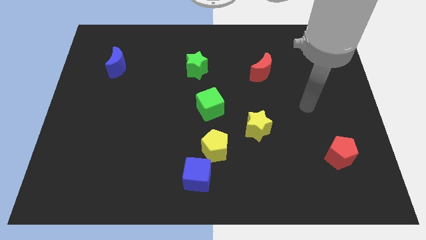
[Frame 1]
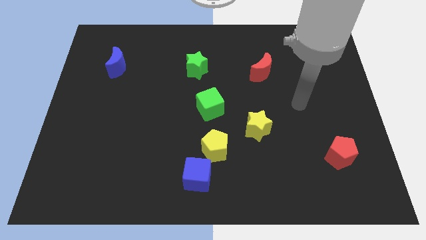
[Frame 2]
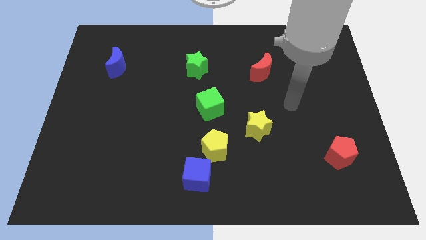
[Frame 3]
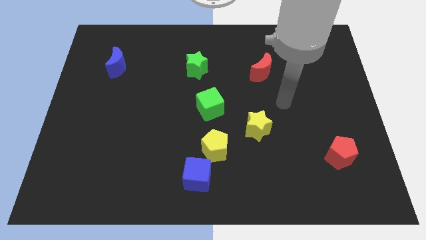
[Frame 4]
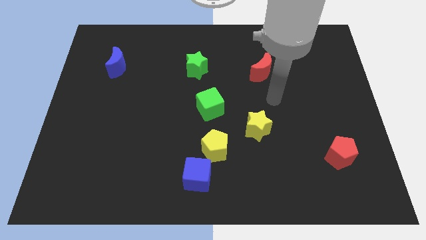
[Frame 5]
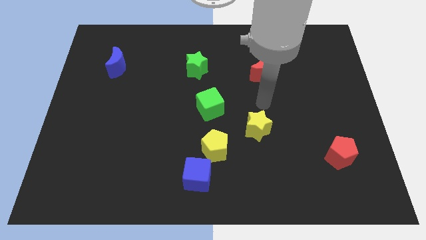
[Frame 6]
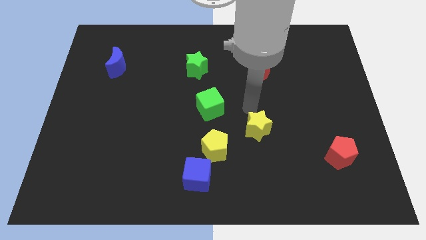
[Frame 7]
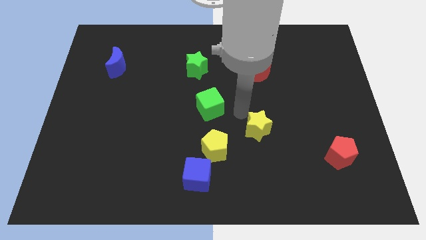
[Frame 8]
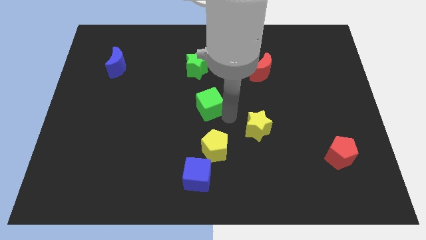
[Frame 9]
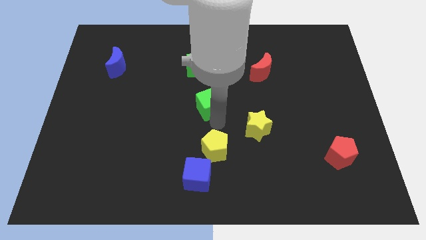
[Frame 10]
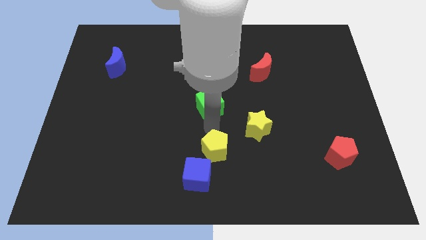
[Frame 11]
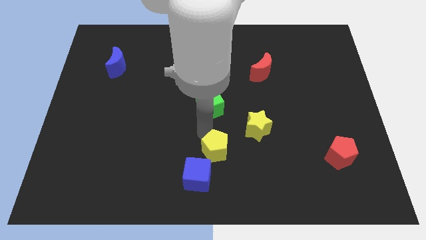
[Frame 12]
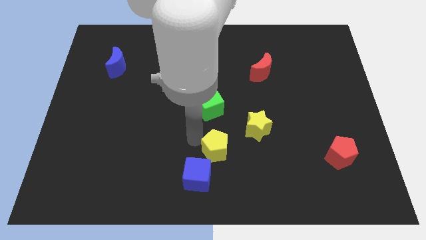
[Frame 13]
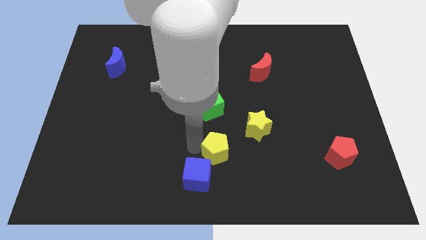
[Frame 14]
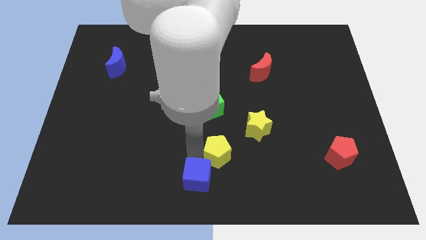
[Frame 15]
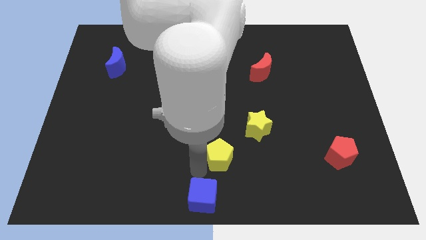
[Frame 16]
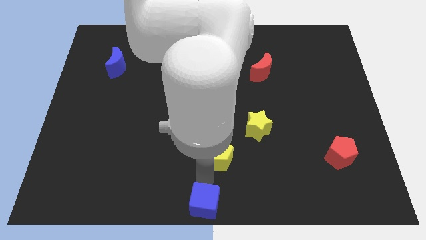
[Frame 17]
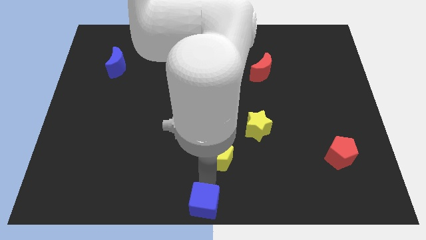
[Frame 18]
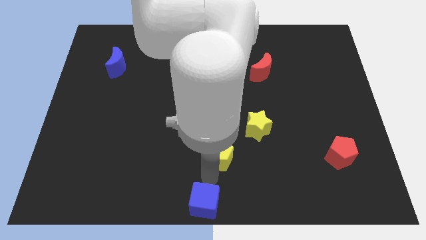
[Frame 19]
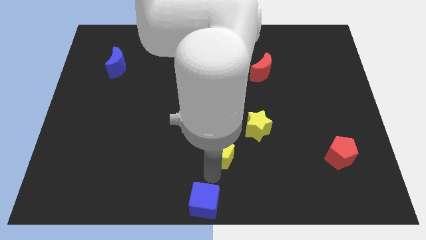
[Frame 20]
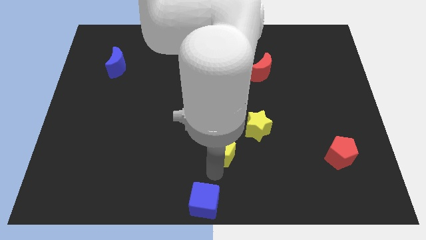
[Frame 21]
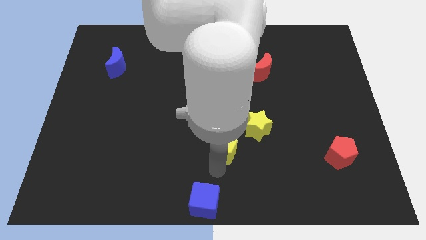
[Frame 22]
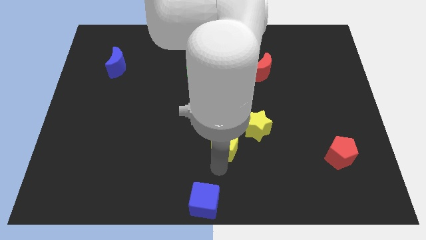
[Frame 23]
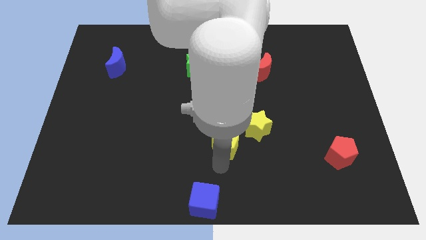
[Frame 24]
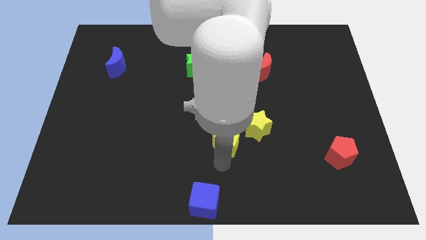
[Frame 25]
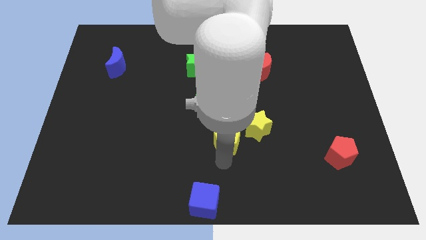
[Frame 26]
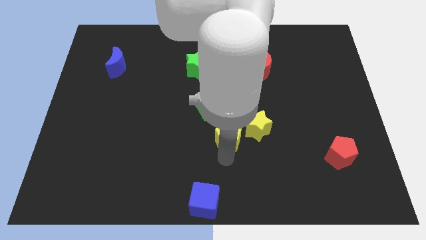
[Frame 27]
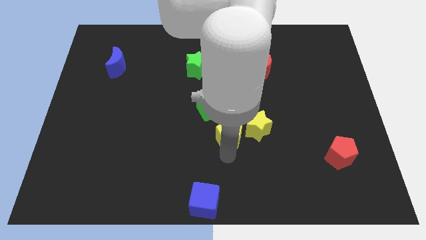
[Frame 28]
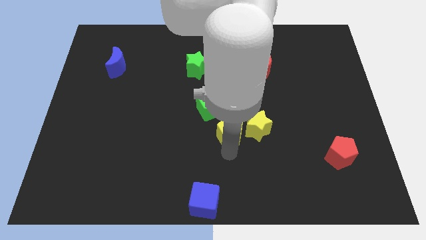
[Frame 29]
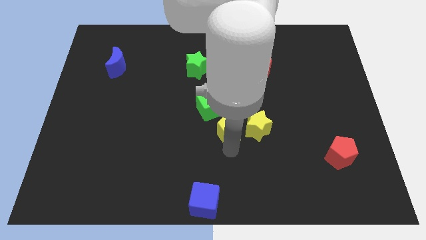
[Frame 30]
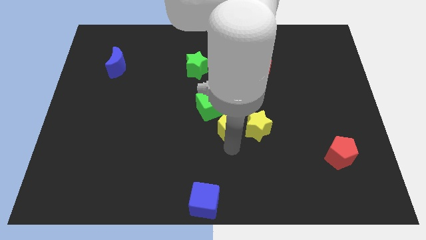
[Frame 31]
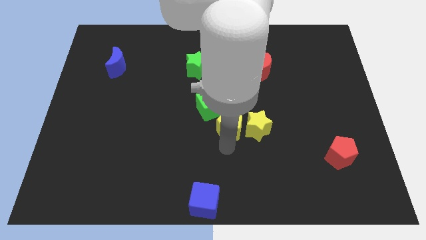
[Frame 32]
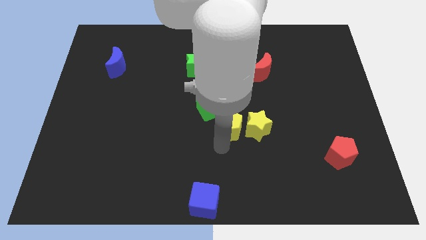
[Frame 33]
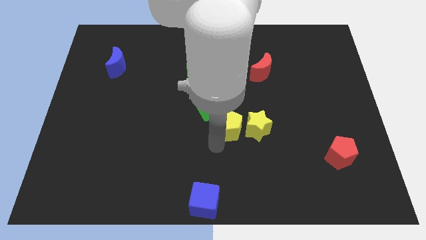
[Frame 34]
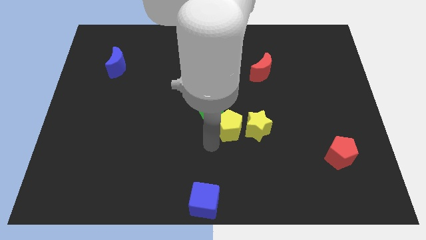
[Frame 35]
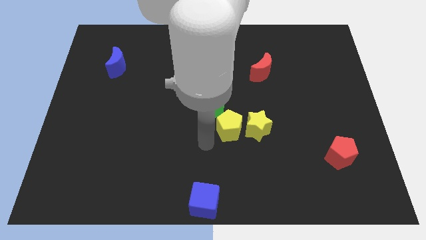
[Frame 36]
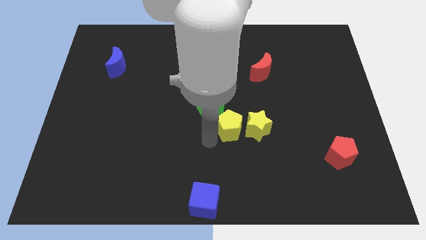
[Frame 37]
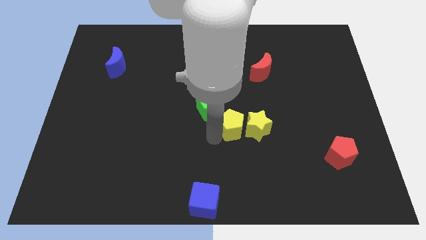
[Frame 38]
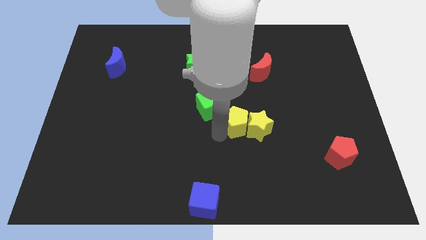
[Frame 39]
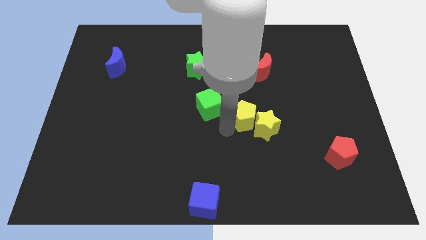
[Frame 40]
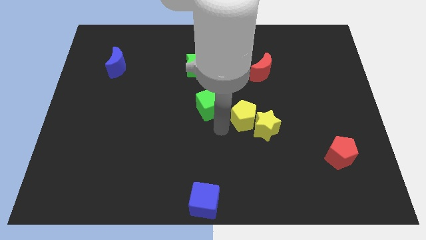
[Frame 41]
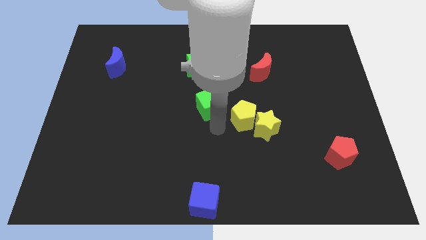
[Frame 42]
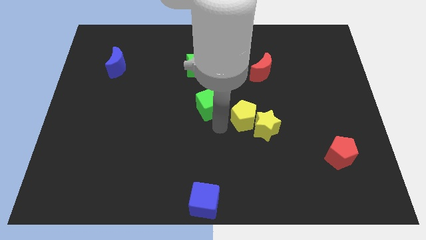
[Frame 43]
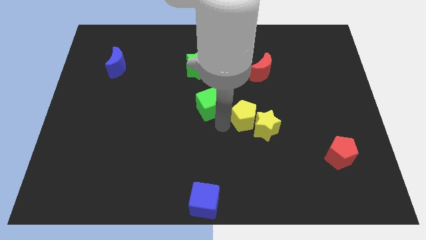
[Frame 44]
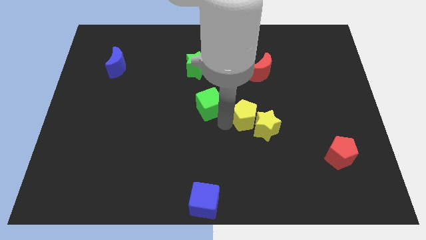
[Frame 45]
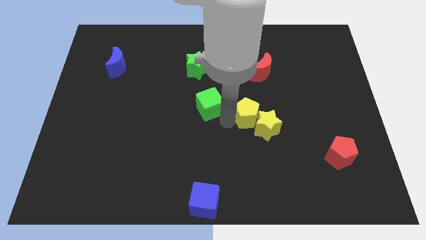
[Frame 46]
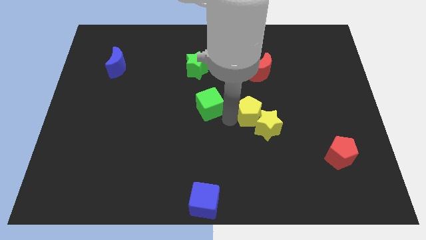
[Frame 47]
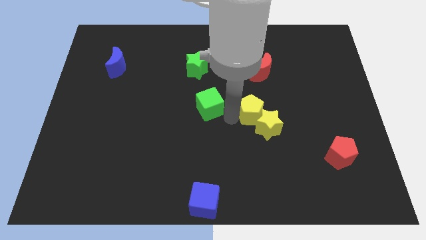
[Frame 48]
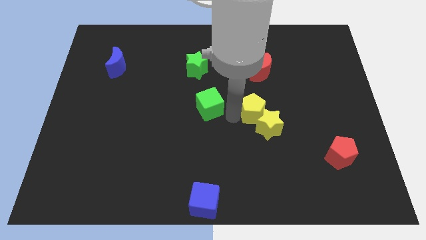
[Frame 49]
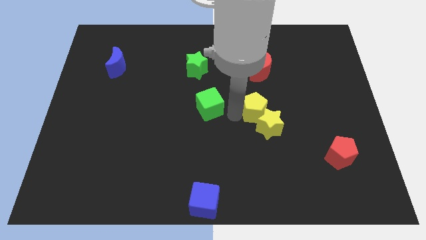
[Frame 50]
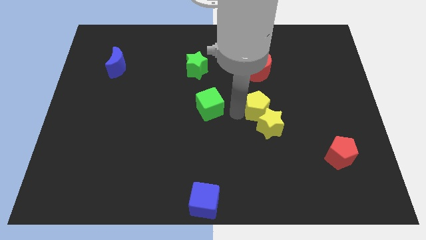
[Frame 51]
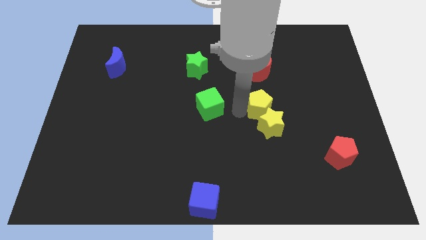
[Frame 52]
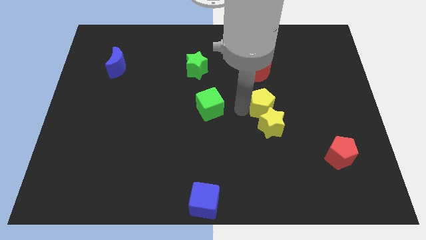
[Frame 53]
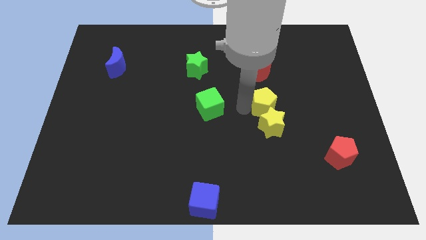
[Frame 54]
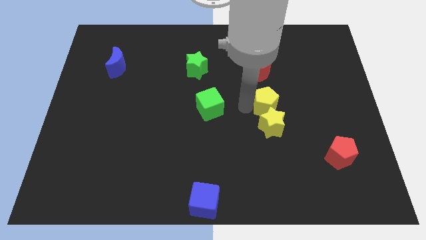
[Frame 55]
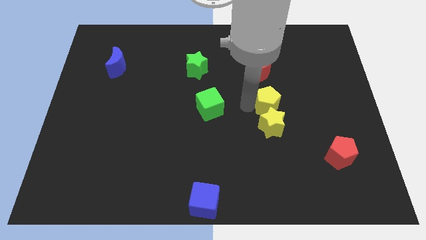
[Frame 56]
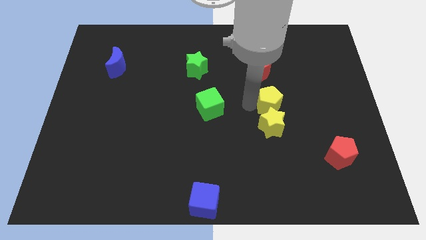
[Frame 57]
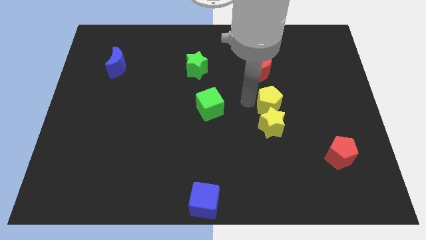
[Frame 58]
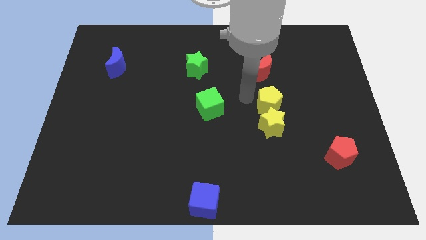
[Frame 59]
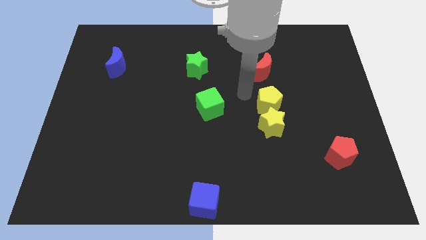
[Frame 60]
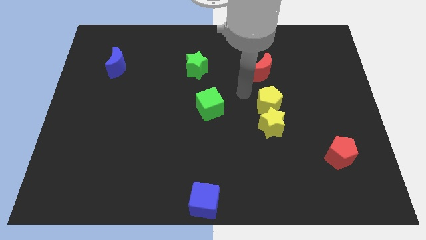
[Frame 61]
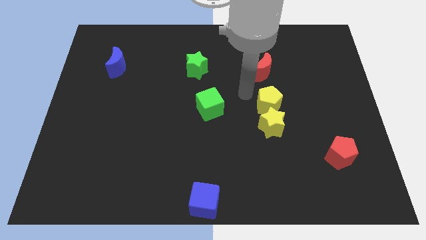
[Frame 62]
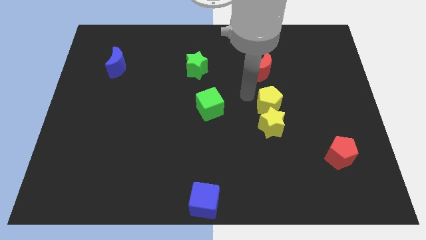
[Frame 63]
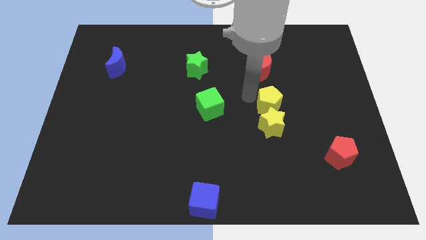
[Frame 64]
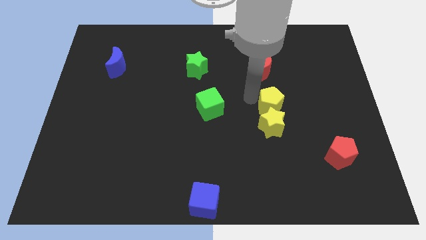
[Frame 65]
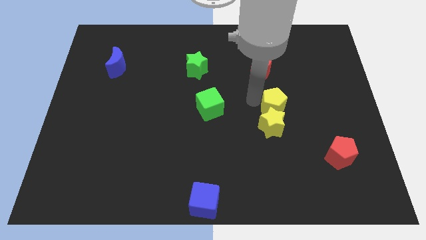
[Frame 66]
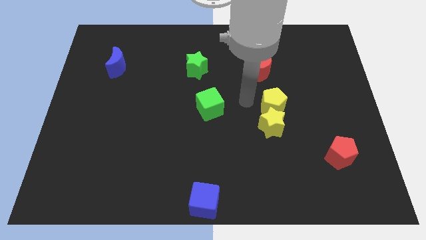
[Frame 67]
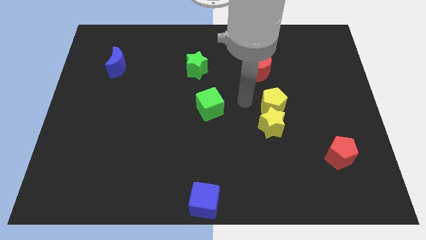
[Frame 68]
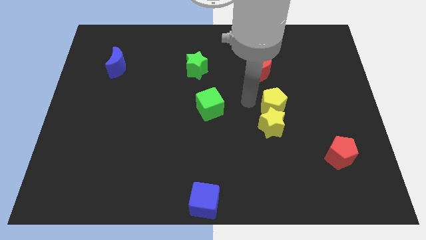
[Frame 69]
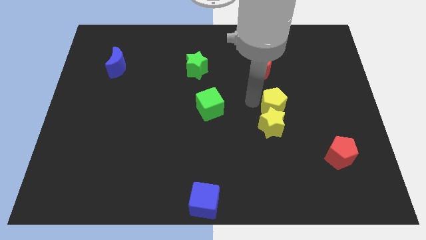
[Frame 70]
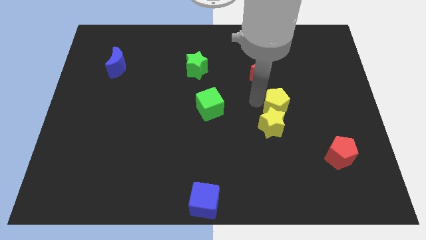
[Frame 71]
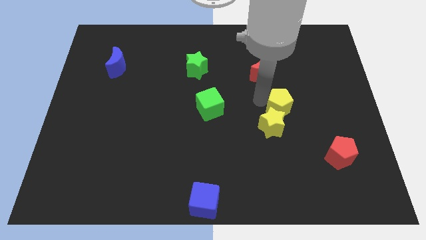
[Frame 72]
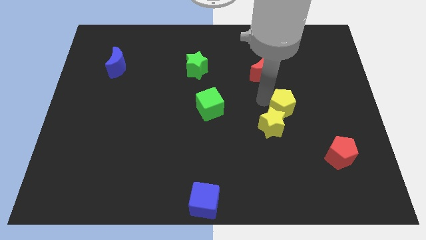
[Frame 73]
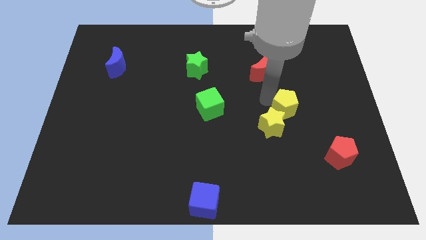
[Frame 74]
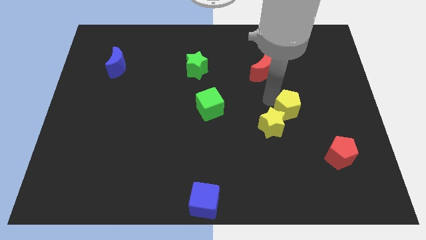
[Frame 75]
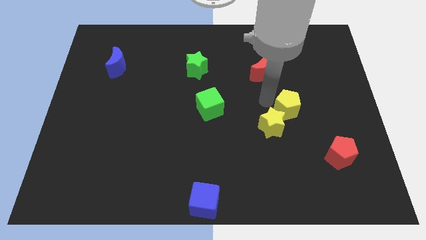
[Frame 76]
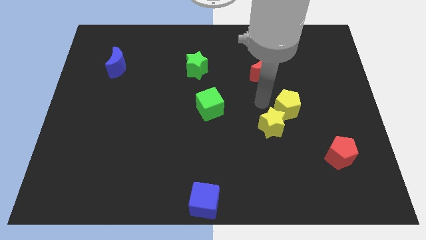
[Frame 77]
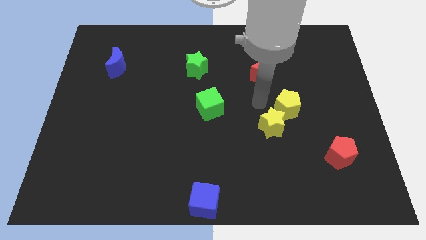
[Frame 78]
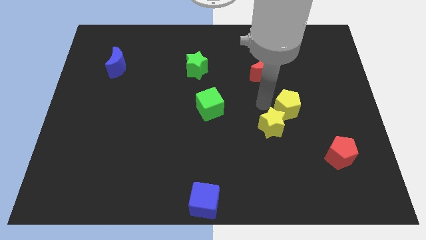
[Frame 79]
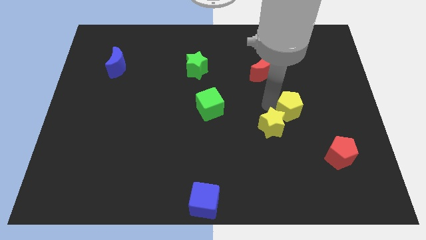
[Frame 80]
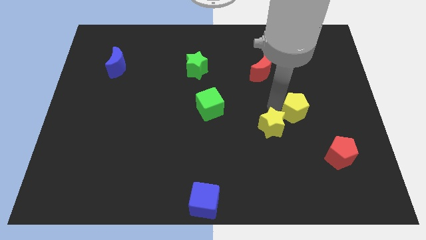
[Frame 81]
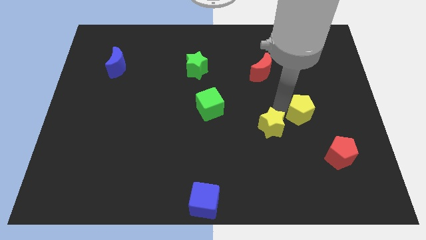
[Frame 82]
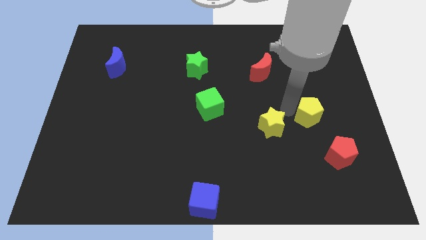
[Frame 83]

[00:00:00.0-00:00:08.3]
put the yellow pentagon above the red pentagon
